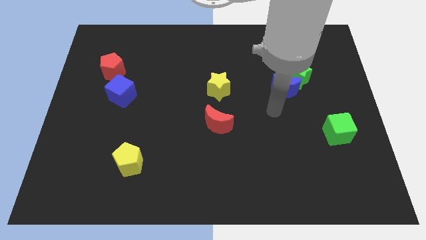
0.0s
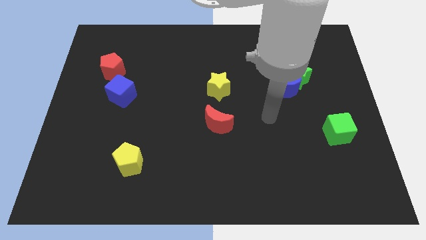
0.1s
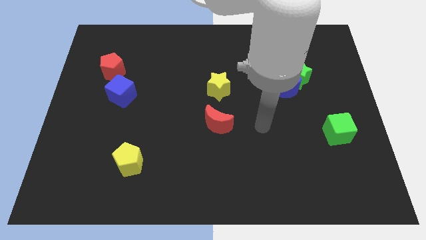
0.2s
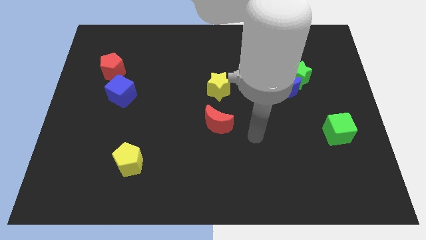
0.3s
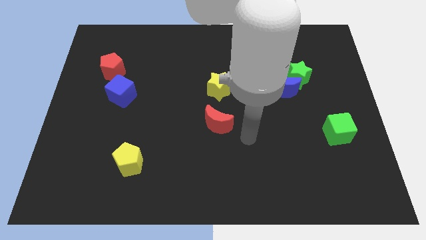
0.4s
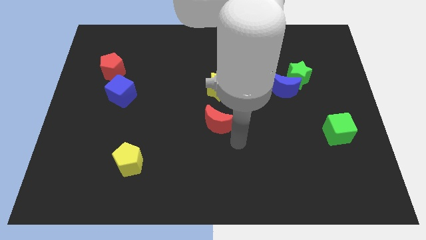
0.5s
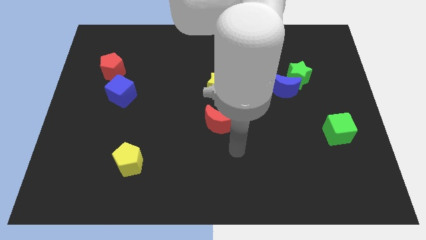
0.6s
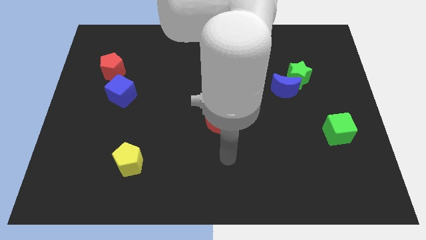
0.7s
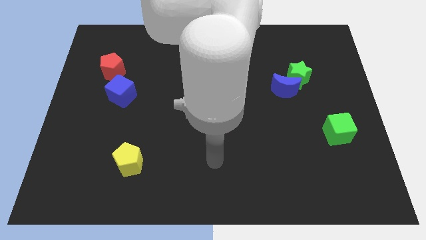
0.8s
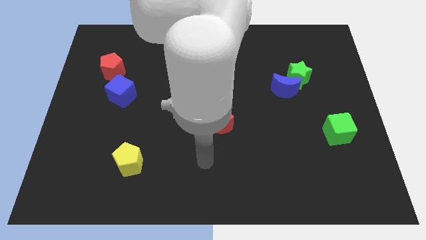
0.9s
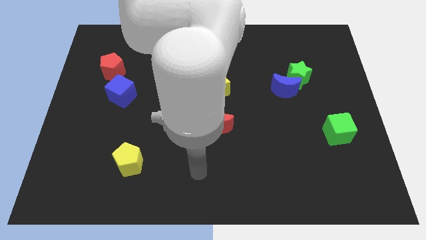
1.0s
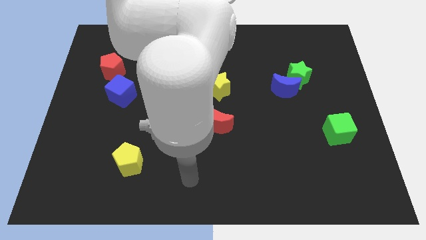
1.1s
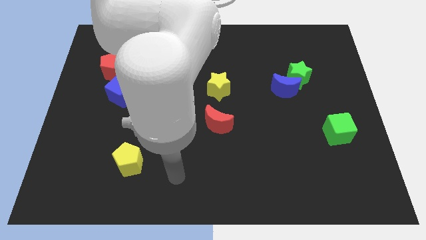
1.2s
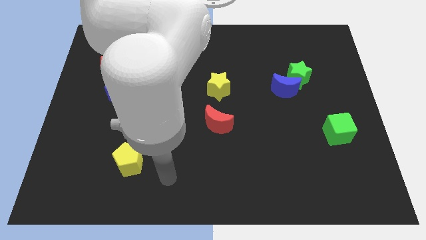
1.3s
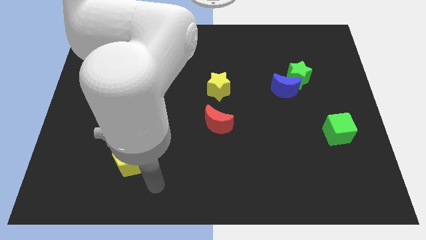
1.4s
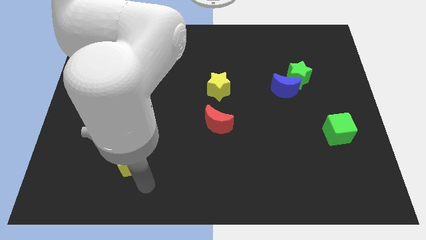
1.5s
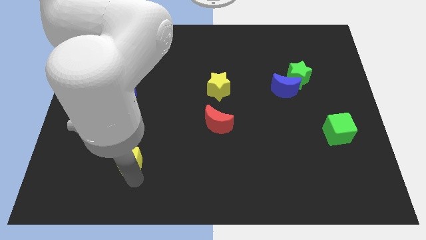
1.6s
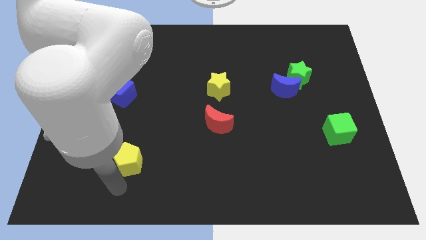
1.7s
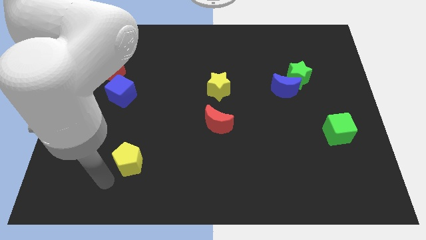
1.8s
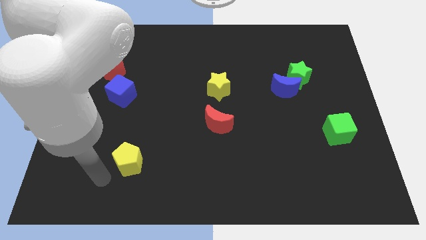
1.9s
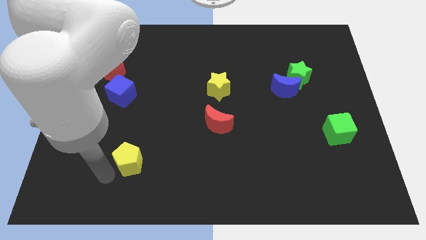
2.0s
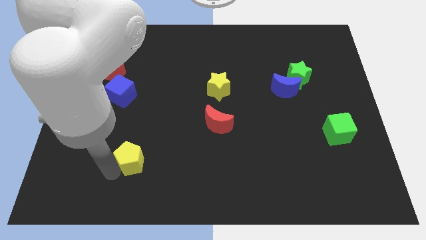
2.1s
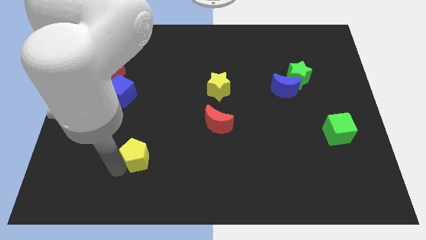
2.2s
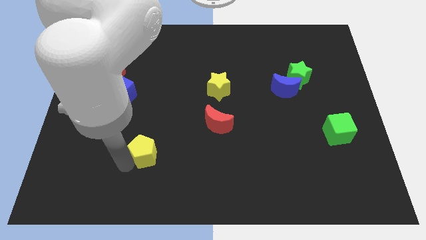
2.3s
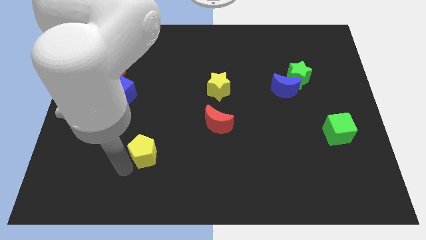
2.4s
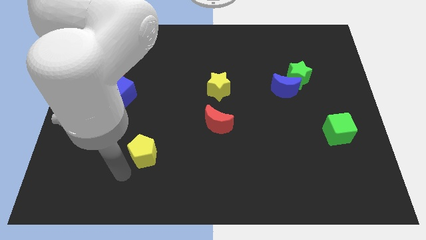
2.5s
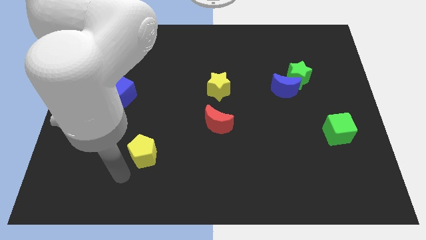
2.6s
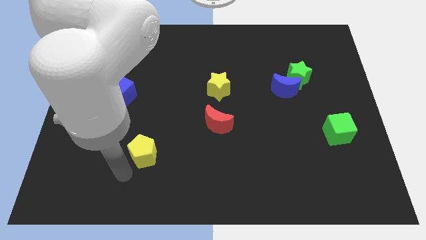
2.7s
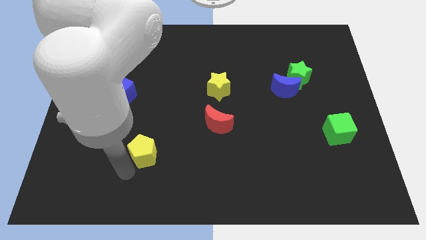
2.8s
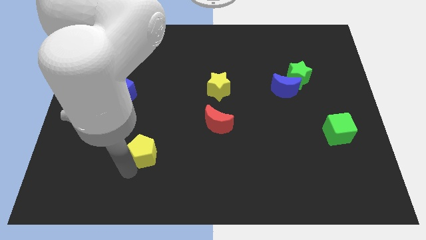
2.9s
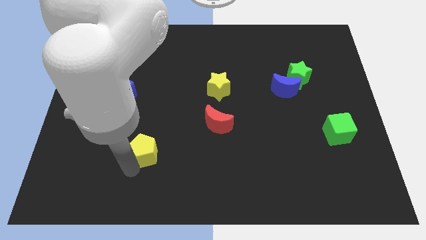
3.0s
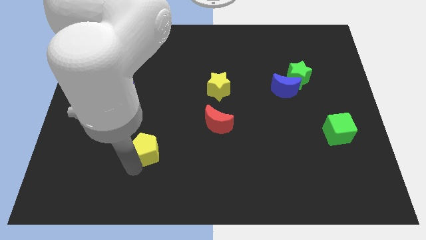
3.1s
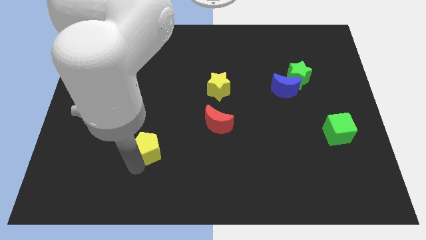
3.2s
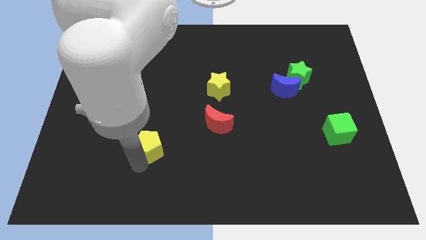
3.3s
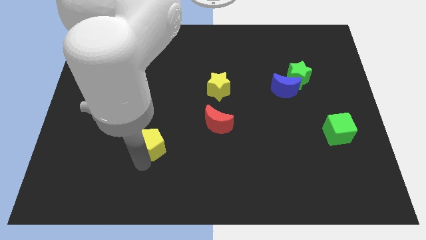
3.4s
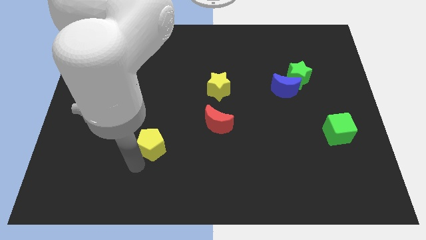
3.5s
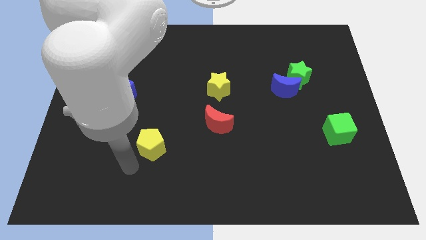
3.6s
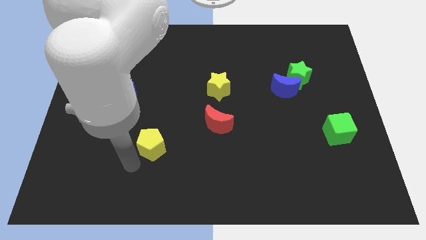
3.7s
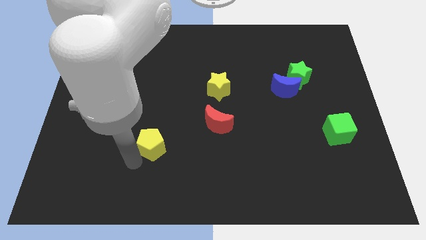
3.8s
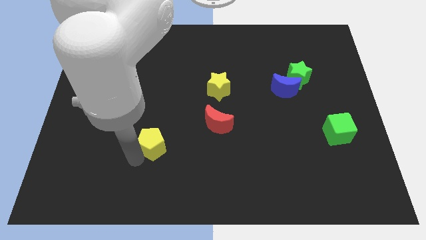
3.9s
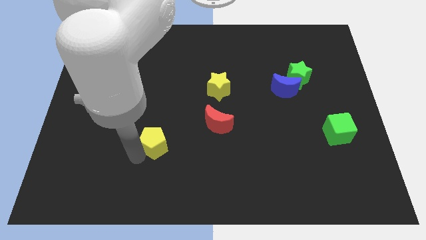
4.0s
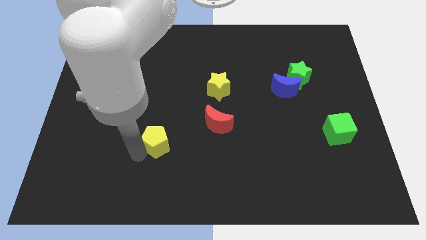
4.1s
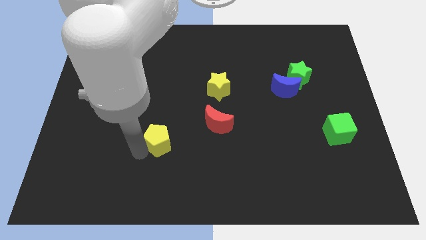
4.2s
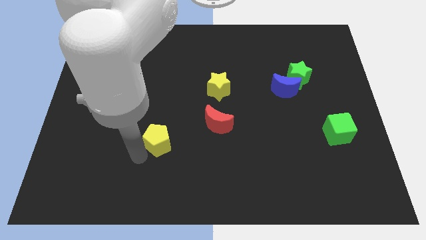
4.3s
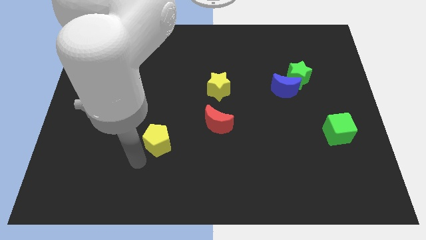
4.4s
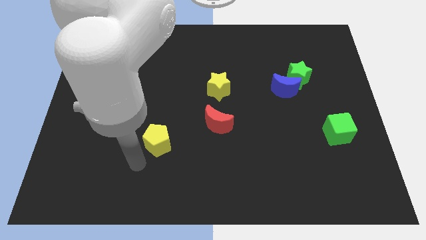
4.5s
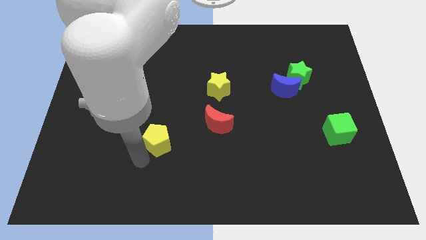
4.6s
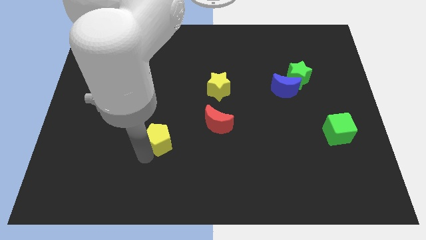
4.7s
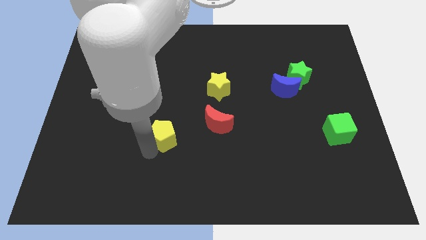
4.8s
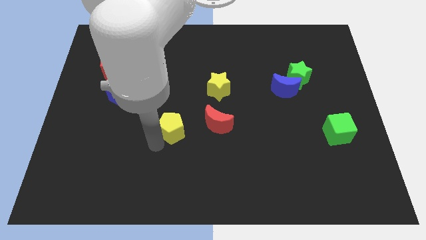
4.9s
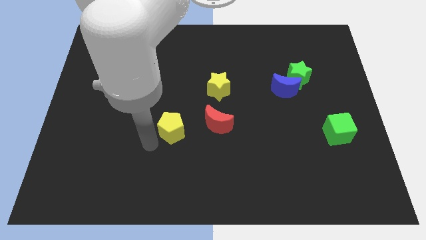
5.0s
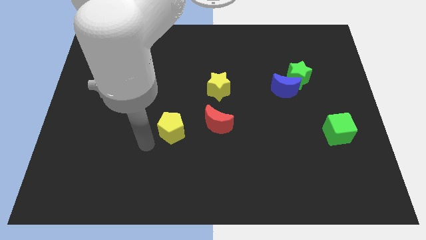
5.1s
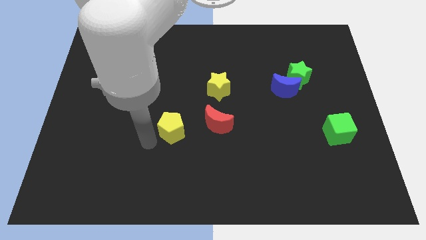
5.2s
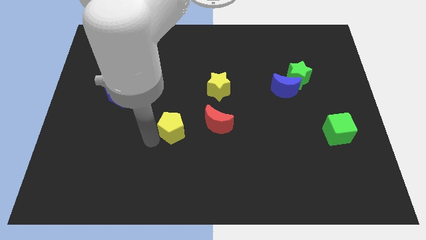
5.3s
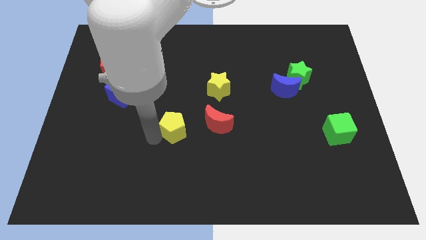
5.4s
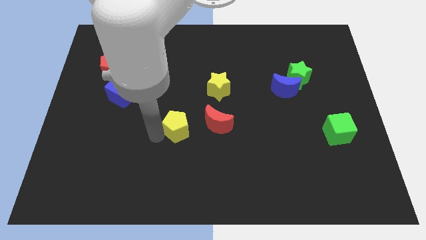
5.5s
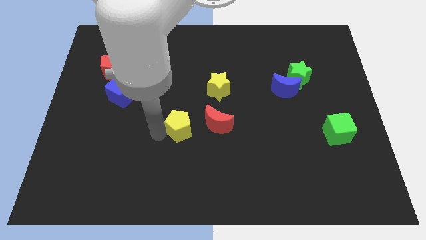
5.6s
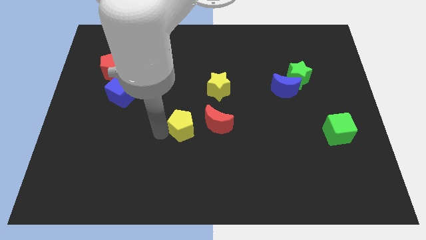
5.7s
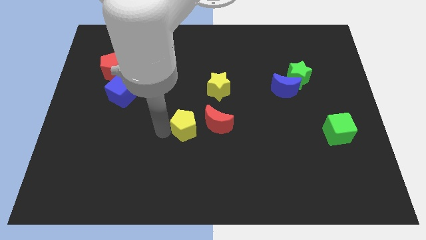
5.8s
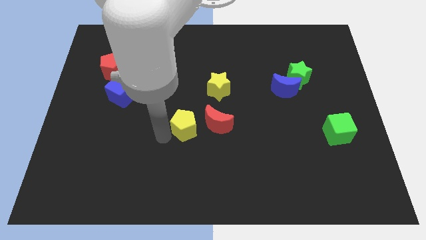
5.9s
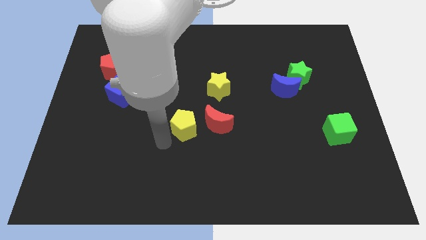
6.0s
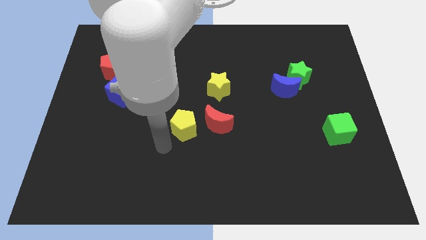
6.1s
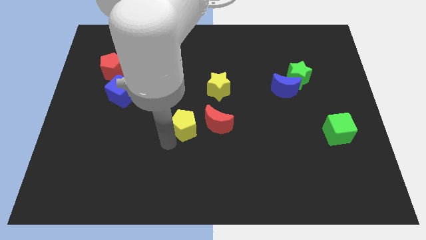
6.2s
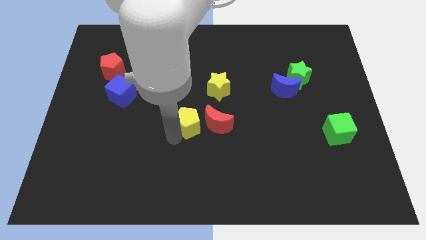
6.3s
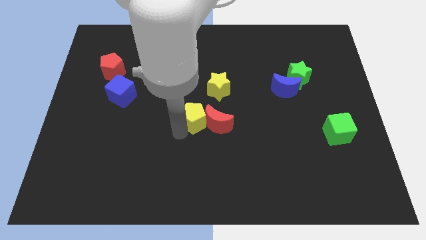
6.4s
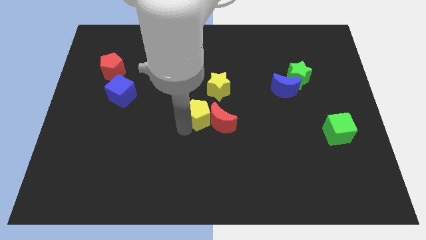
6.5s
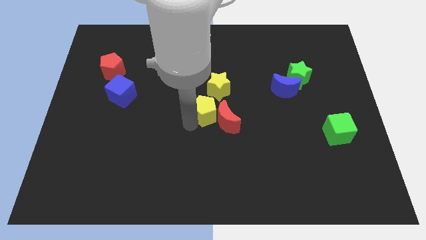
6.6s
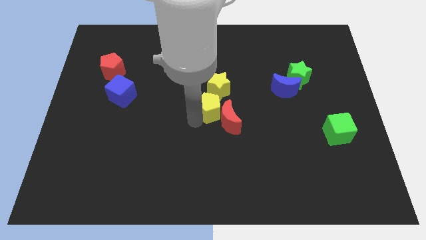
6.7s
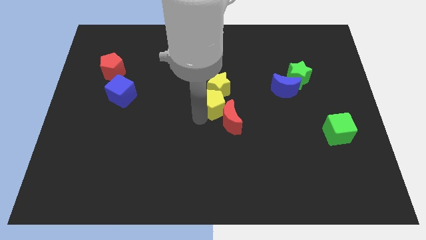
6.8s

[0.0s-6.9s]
slide the yellow pentagon close to the yellow star
